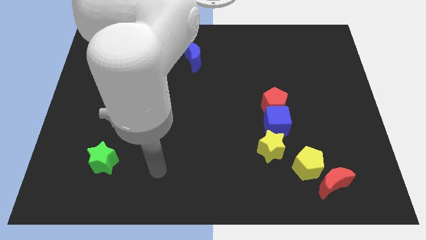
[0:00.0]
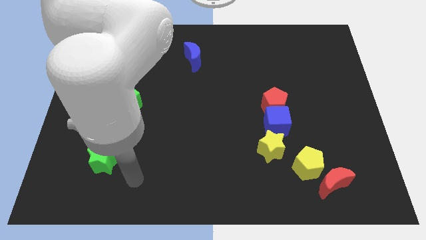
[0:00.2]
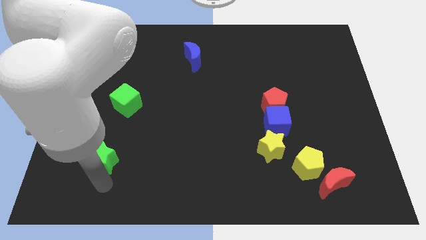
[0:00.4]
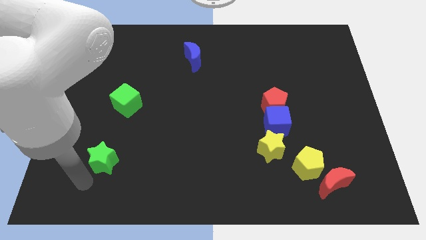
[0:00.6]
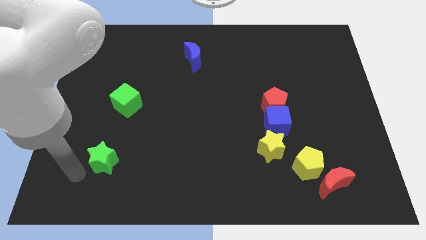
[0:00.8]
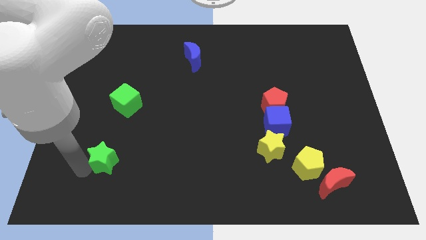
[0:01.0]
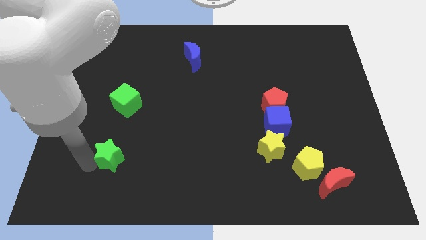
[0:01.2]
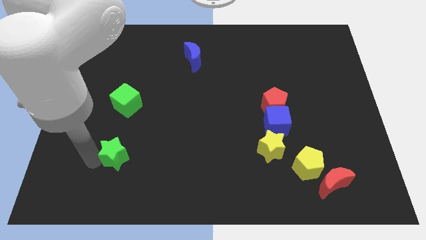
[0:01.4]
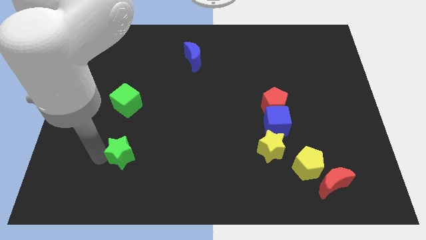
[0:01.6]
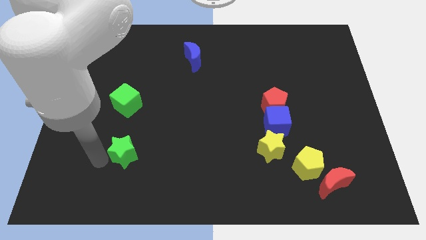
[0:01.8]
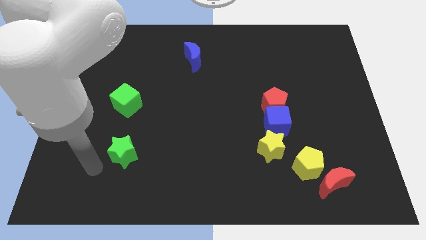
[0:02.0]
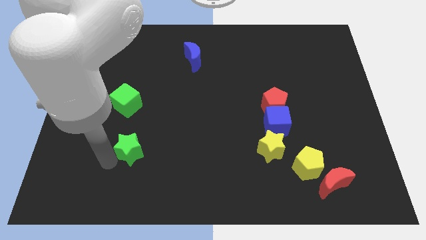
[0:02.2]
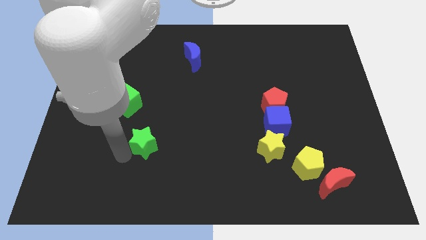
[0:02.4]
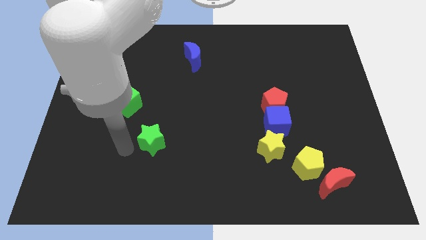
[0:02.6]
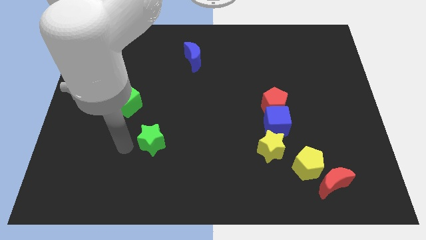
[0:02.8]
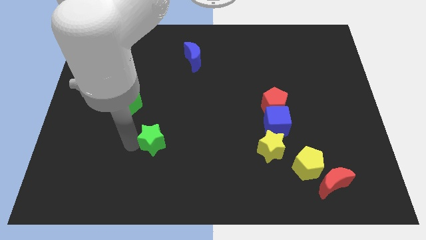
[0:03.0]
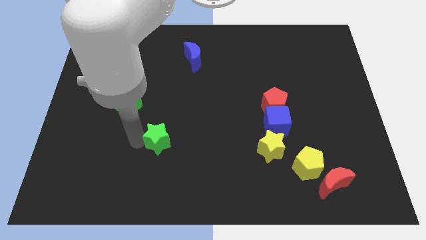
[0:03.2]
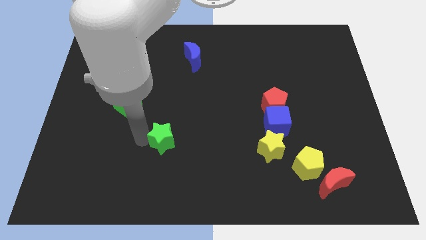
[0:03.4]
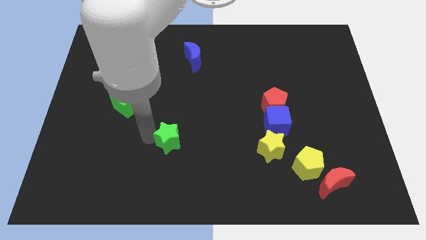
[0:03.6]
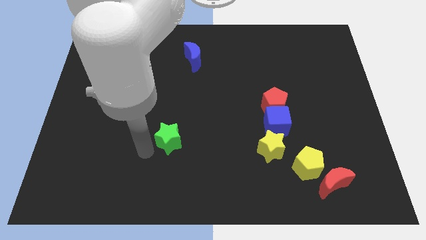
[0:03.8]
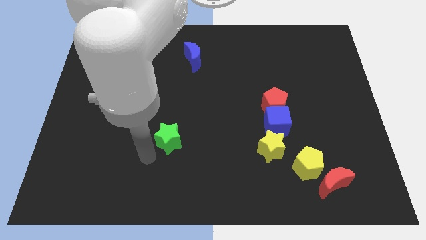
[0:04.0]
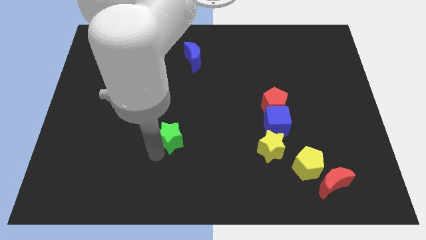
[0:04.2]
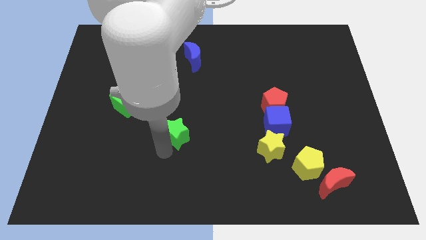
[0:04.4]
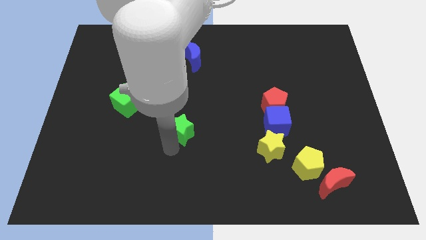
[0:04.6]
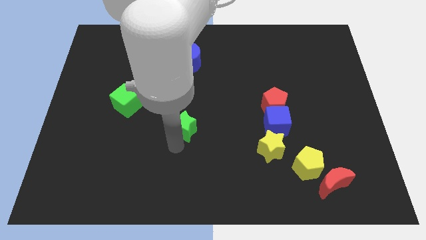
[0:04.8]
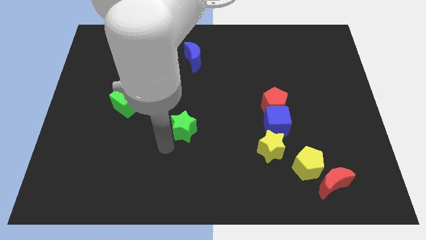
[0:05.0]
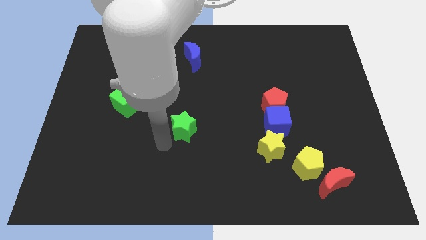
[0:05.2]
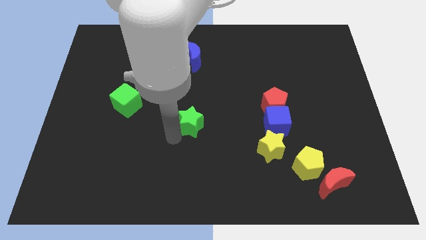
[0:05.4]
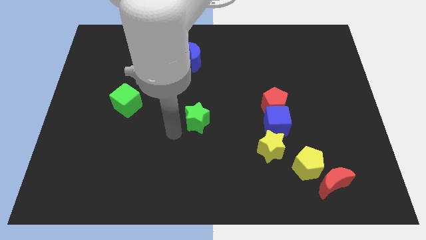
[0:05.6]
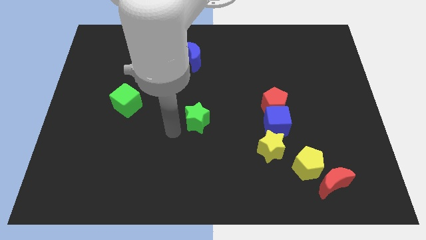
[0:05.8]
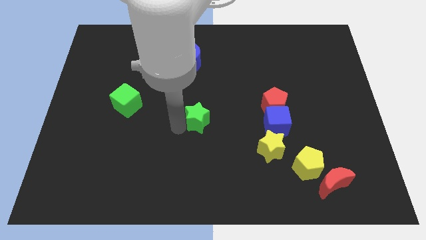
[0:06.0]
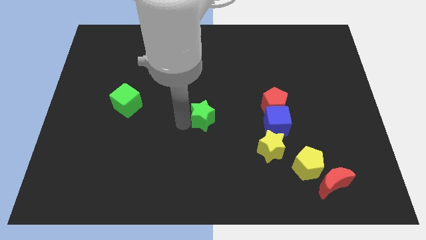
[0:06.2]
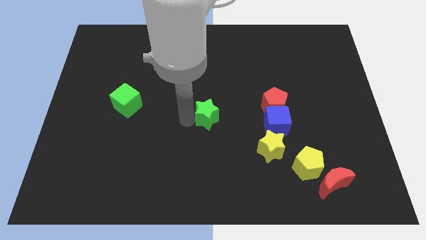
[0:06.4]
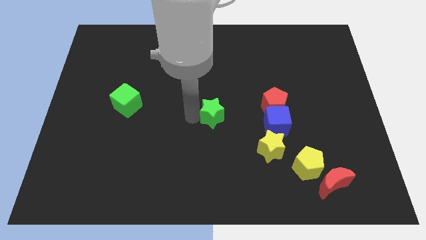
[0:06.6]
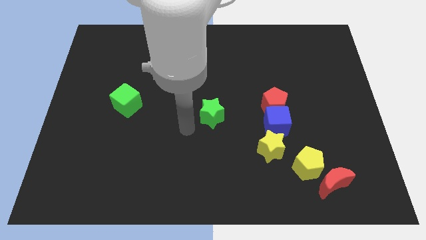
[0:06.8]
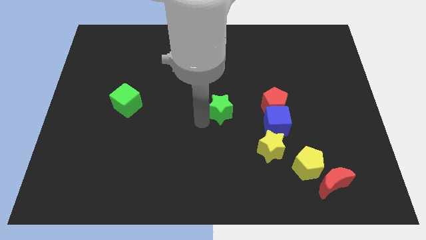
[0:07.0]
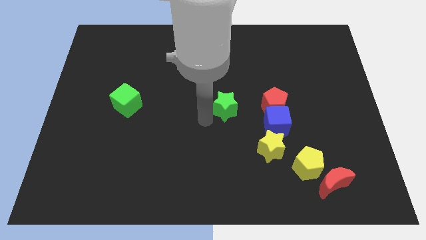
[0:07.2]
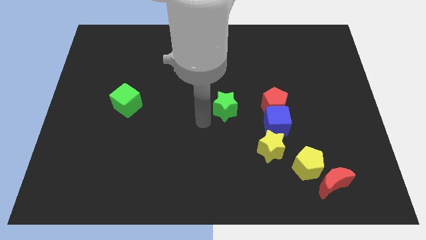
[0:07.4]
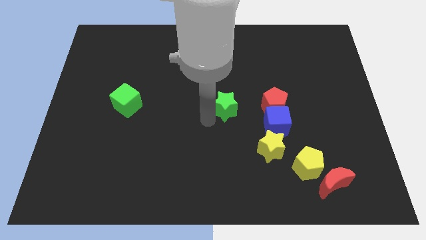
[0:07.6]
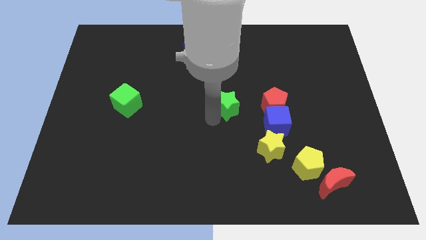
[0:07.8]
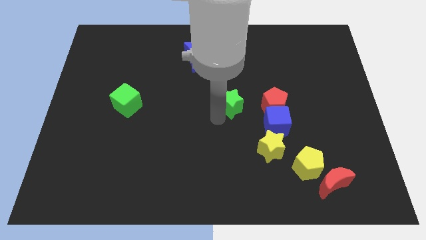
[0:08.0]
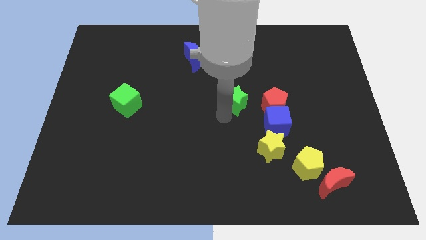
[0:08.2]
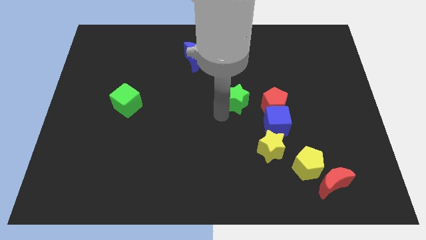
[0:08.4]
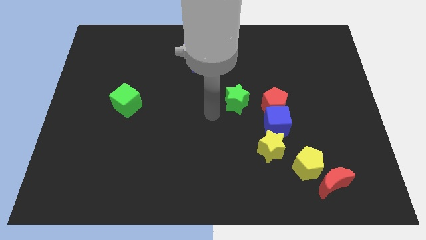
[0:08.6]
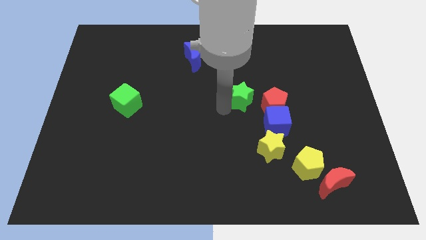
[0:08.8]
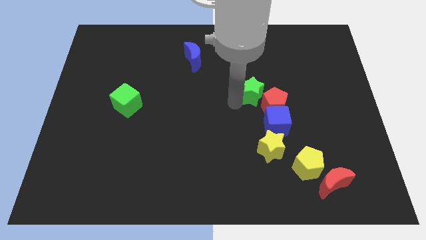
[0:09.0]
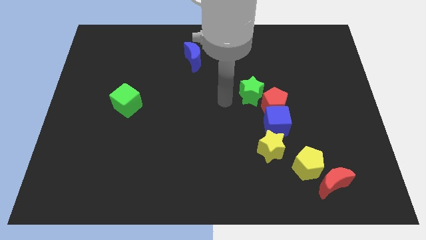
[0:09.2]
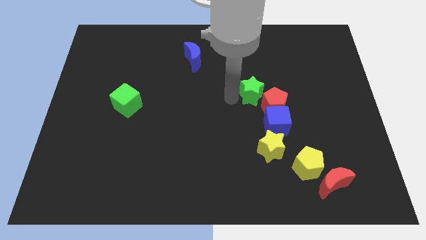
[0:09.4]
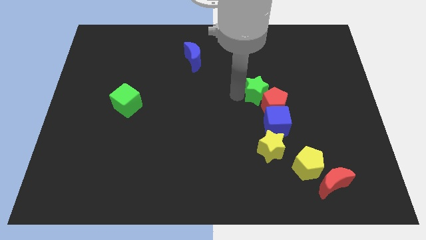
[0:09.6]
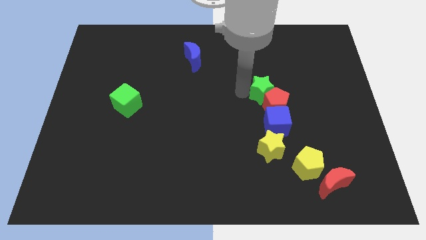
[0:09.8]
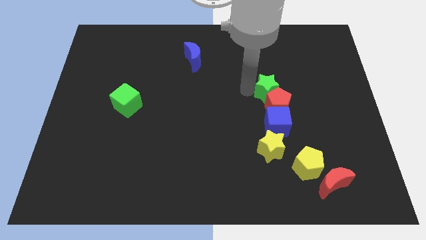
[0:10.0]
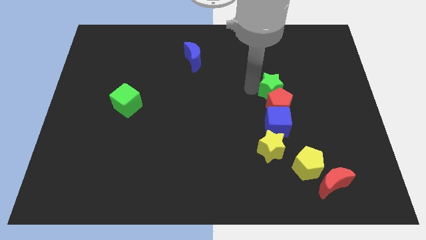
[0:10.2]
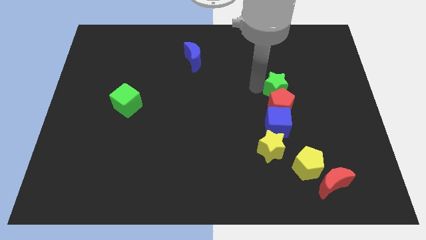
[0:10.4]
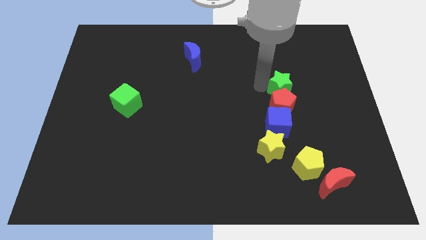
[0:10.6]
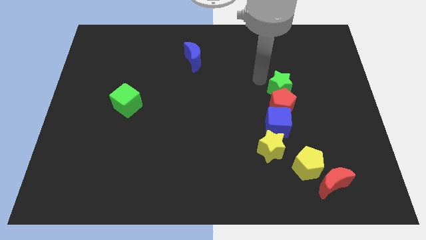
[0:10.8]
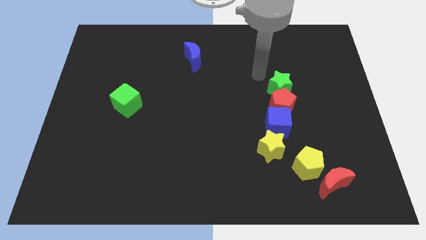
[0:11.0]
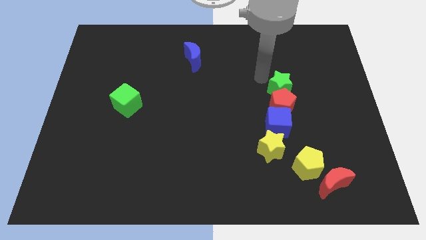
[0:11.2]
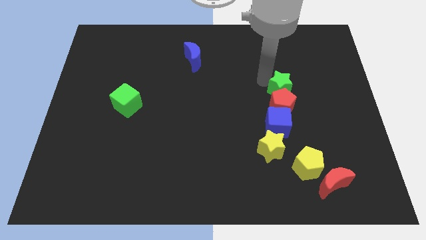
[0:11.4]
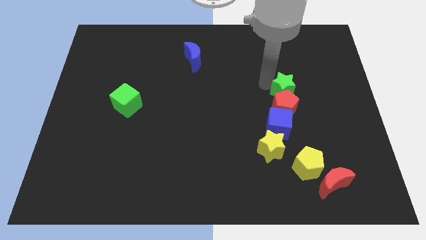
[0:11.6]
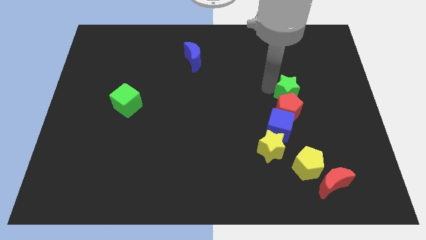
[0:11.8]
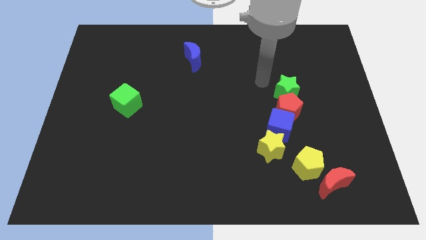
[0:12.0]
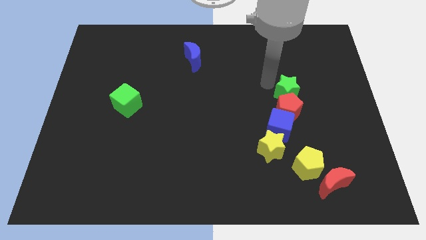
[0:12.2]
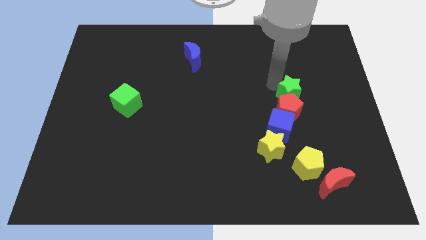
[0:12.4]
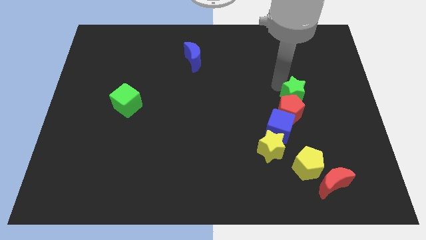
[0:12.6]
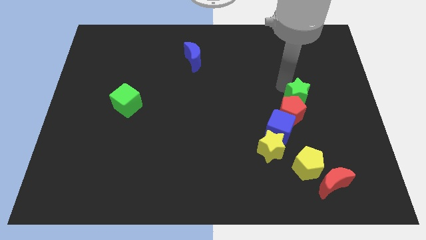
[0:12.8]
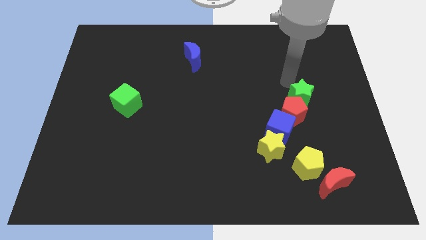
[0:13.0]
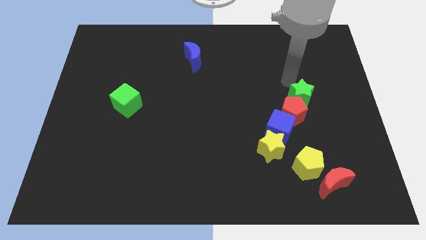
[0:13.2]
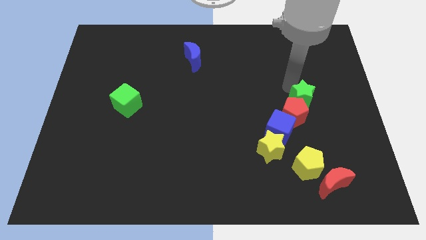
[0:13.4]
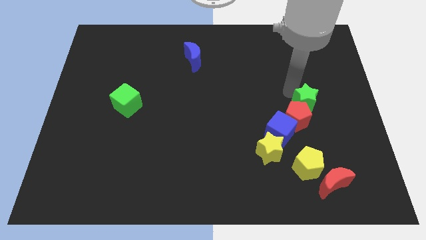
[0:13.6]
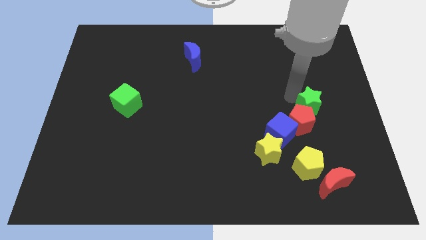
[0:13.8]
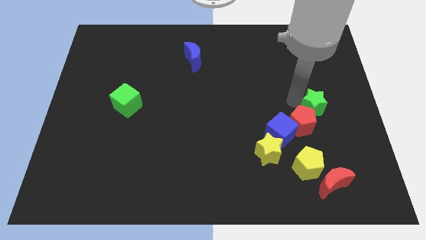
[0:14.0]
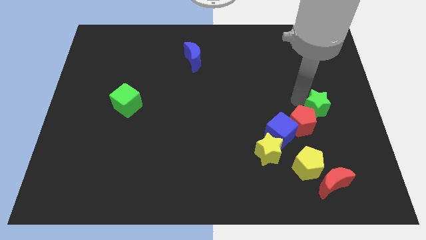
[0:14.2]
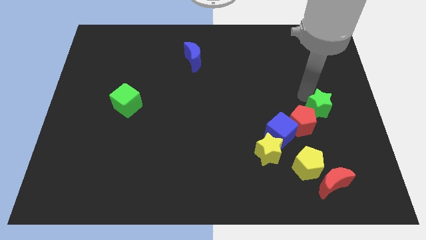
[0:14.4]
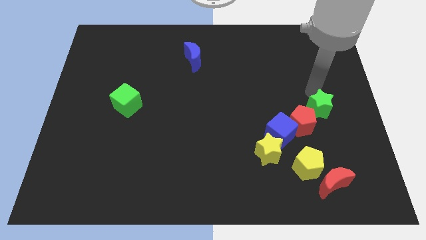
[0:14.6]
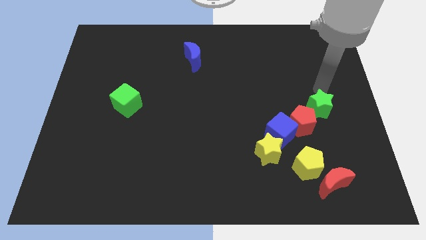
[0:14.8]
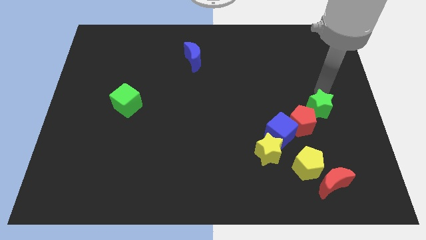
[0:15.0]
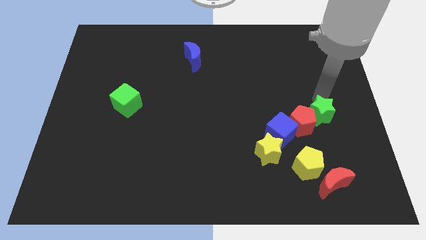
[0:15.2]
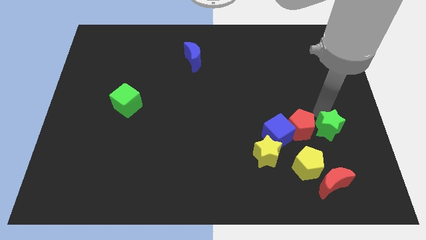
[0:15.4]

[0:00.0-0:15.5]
put the green star diagonally up and to the right of the yellow pentagon
